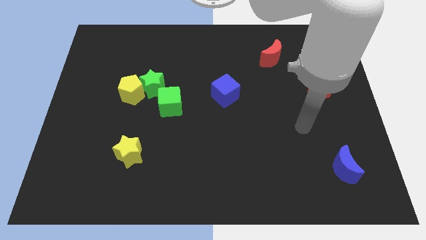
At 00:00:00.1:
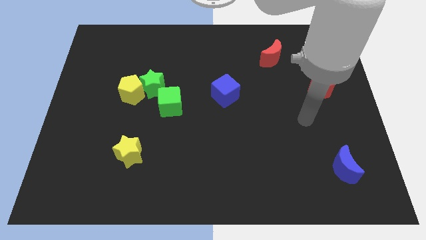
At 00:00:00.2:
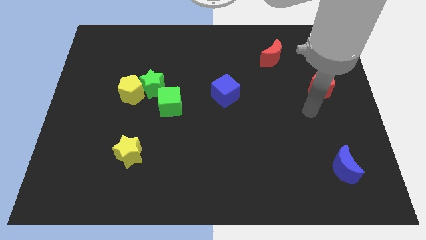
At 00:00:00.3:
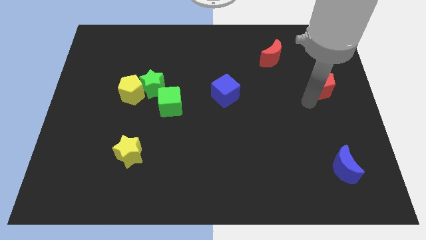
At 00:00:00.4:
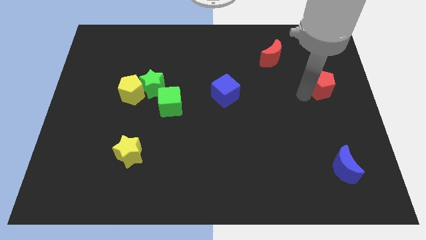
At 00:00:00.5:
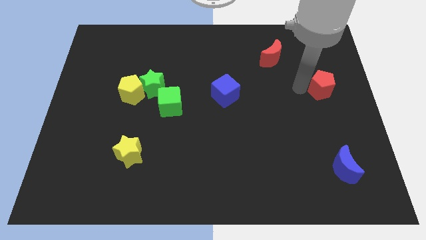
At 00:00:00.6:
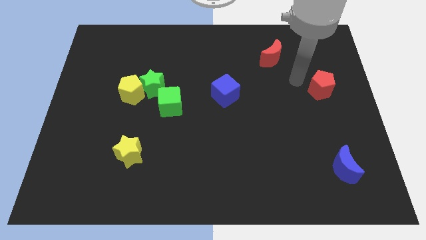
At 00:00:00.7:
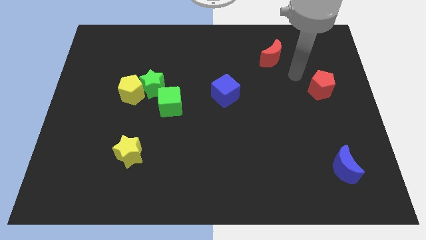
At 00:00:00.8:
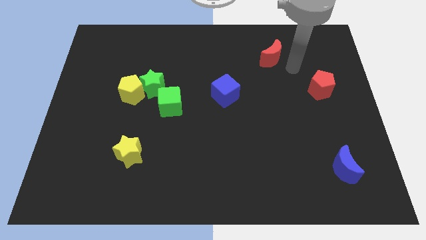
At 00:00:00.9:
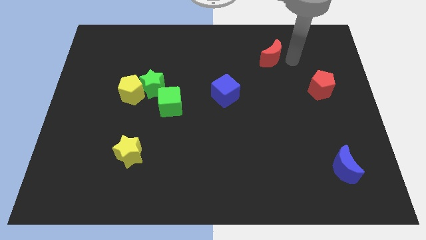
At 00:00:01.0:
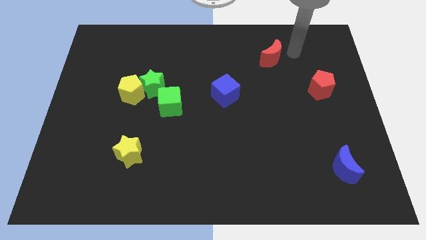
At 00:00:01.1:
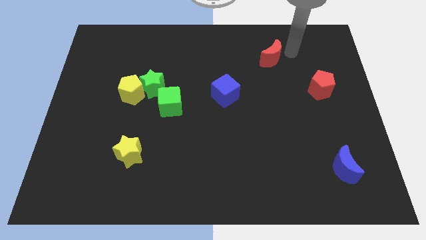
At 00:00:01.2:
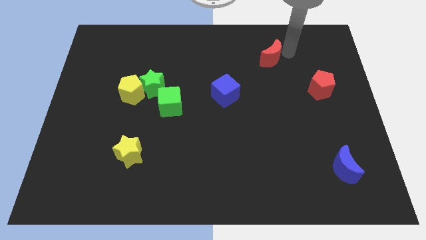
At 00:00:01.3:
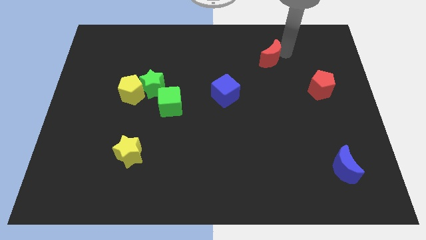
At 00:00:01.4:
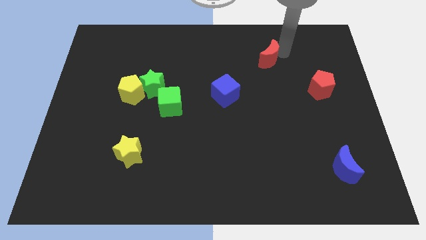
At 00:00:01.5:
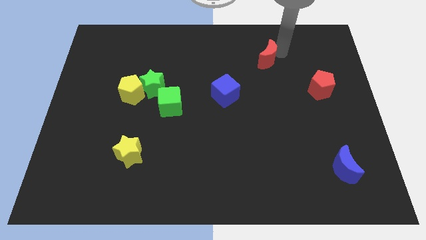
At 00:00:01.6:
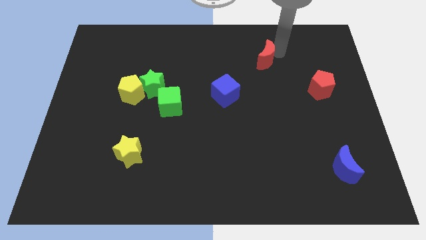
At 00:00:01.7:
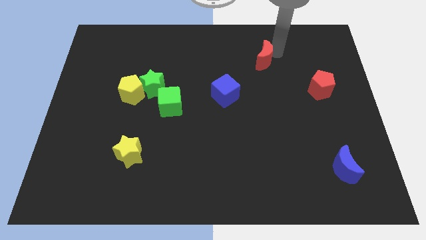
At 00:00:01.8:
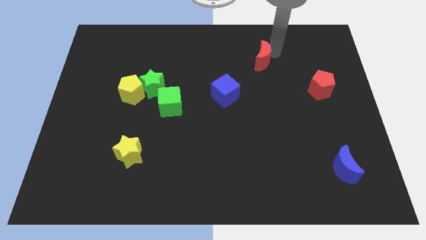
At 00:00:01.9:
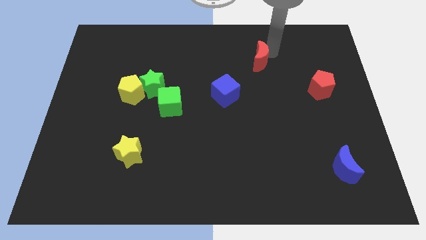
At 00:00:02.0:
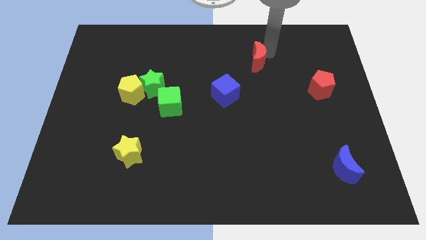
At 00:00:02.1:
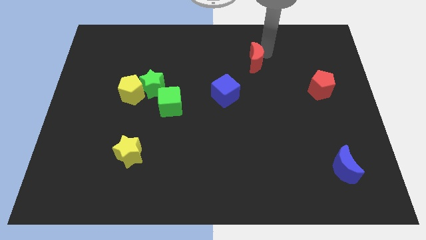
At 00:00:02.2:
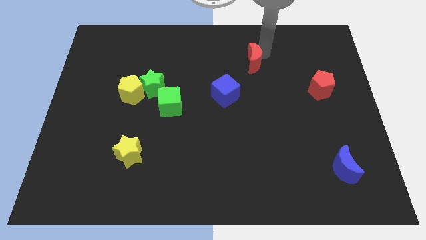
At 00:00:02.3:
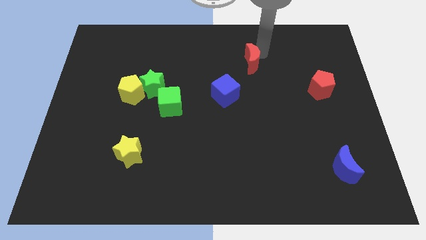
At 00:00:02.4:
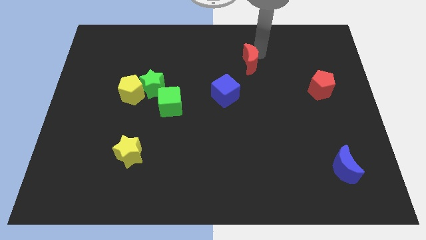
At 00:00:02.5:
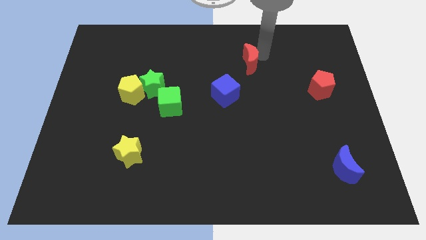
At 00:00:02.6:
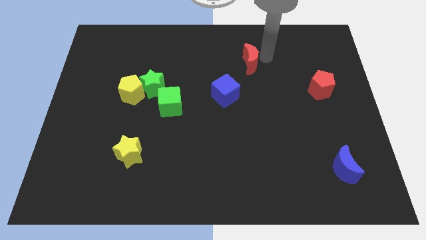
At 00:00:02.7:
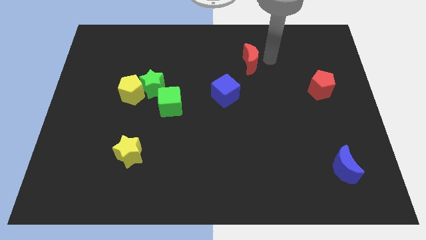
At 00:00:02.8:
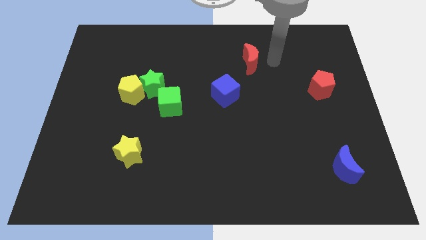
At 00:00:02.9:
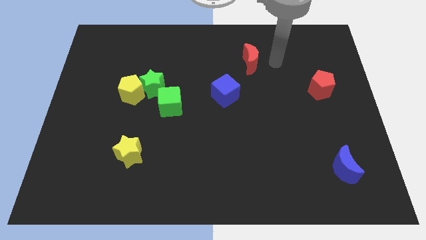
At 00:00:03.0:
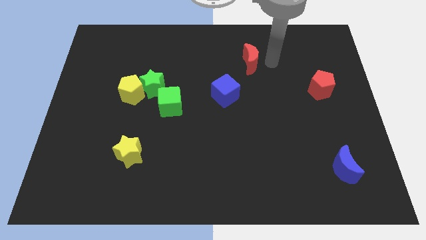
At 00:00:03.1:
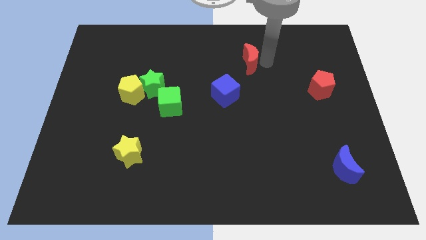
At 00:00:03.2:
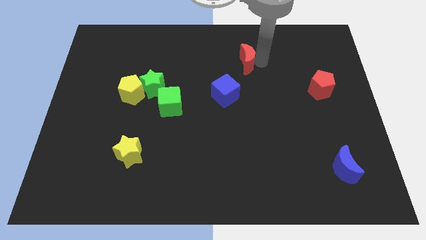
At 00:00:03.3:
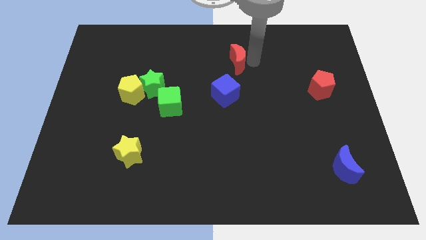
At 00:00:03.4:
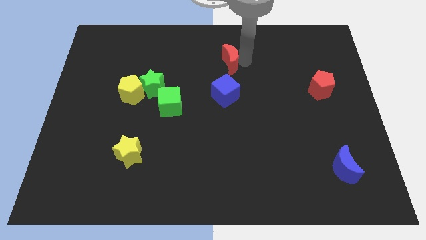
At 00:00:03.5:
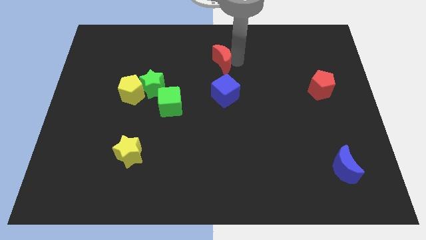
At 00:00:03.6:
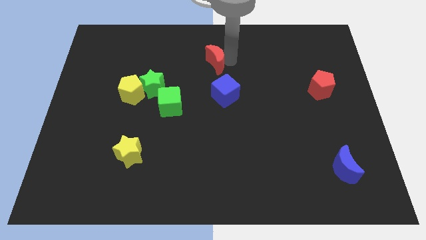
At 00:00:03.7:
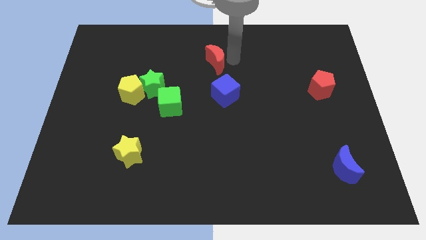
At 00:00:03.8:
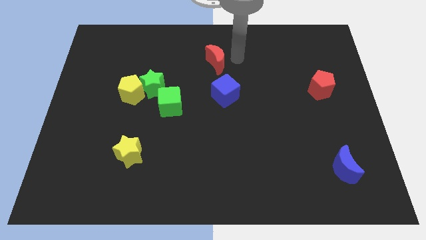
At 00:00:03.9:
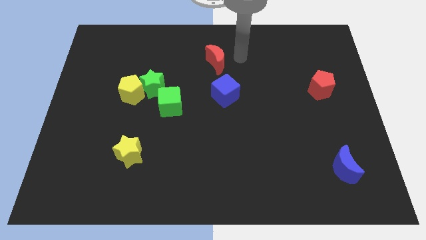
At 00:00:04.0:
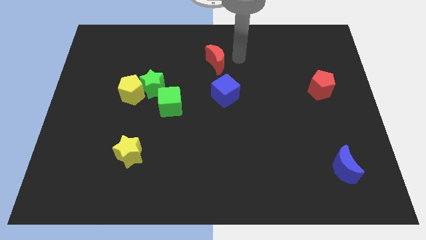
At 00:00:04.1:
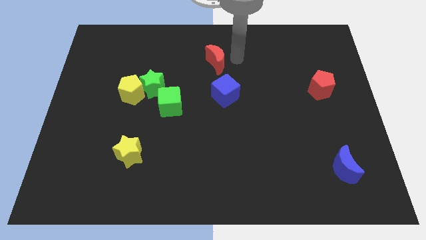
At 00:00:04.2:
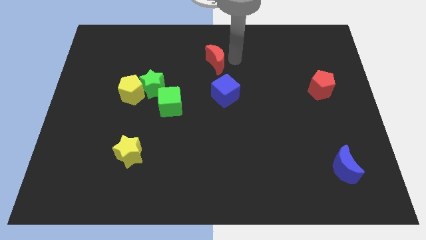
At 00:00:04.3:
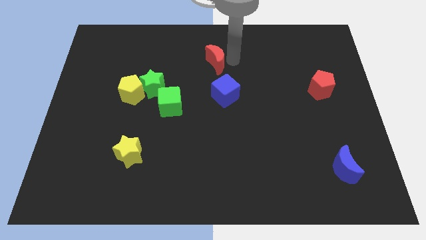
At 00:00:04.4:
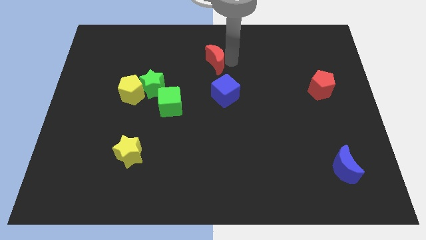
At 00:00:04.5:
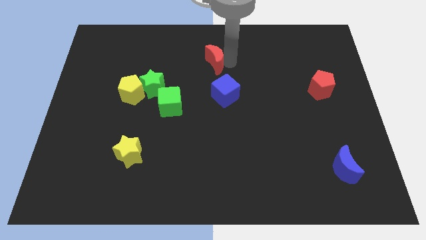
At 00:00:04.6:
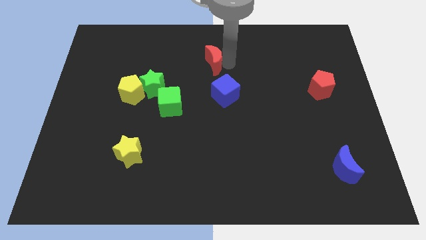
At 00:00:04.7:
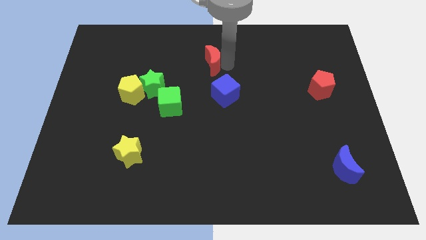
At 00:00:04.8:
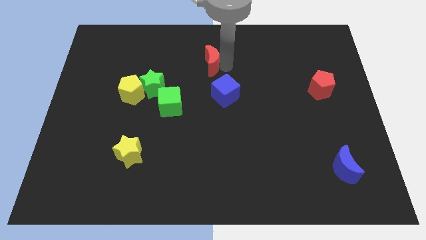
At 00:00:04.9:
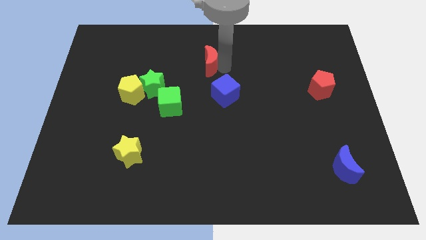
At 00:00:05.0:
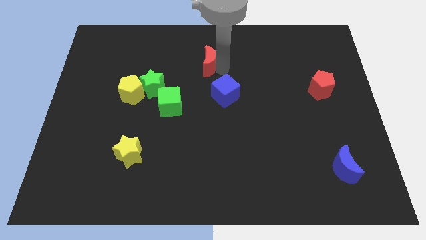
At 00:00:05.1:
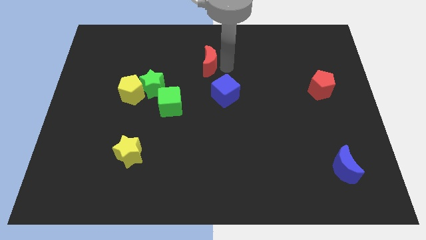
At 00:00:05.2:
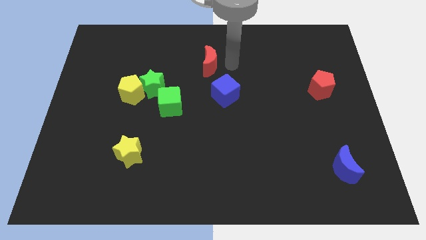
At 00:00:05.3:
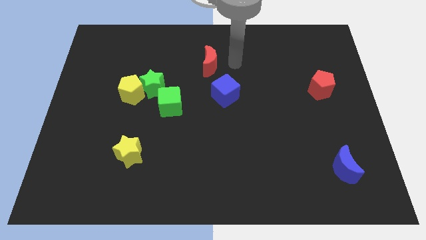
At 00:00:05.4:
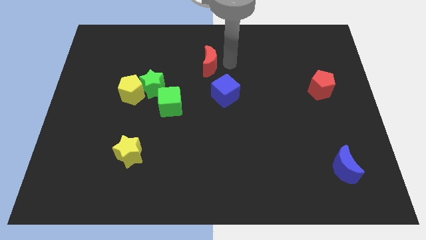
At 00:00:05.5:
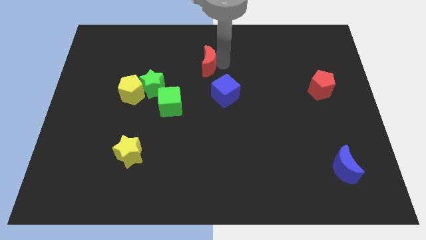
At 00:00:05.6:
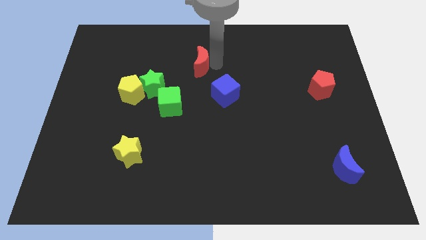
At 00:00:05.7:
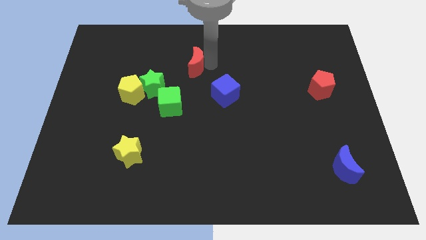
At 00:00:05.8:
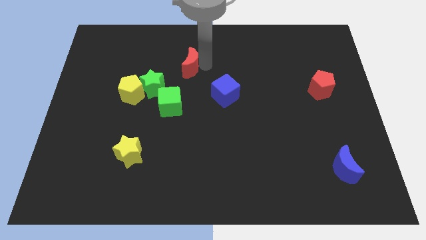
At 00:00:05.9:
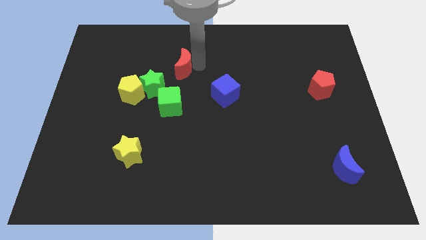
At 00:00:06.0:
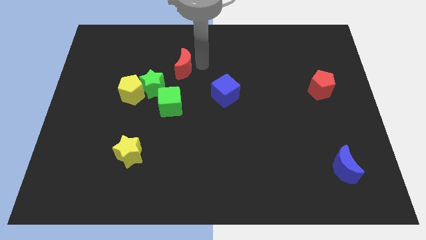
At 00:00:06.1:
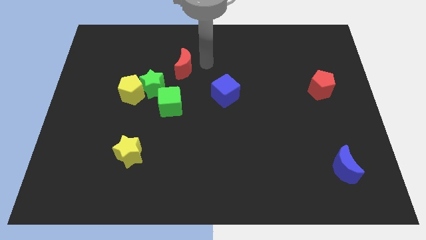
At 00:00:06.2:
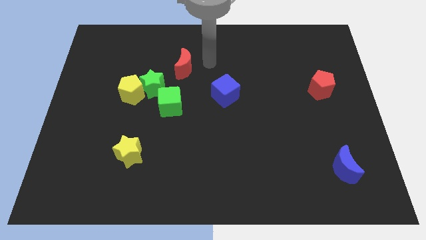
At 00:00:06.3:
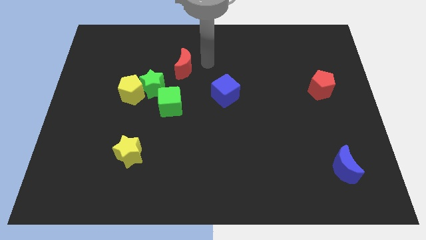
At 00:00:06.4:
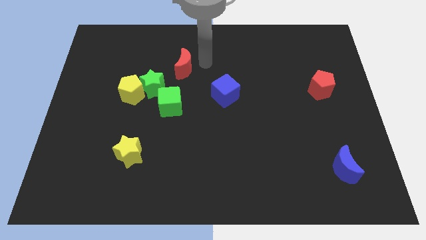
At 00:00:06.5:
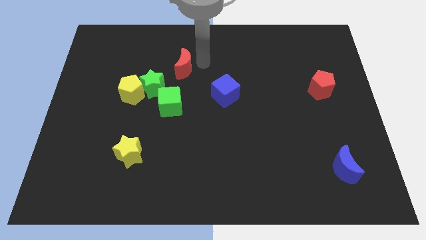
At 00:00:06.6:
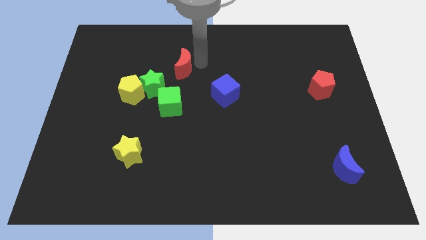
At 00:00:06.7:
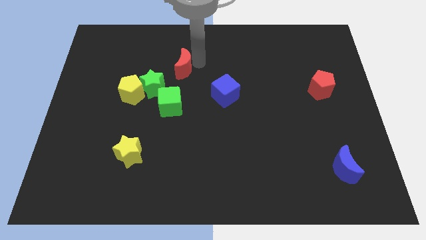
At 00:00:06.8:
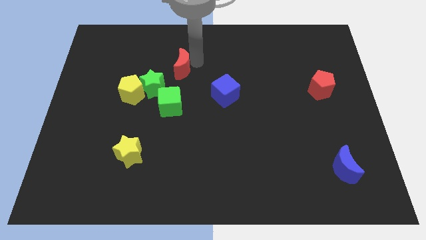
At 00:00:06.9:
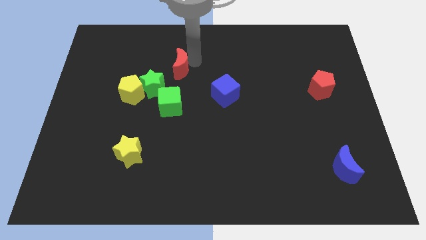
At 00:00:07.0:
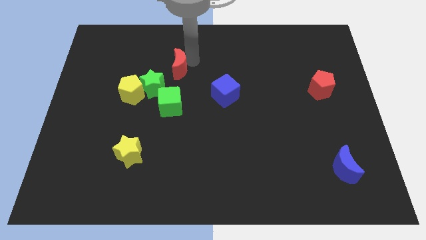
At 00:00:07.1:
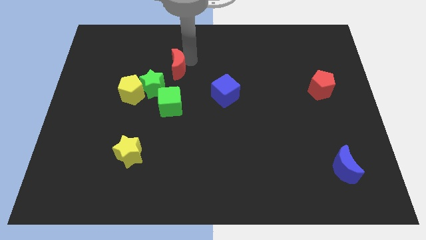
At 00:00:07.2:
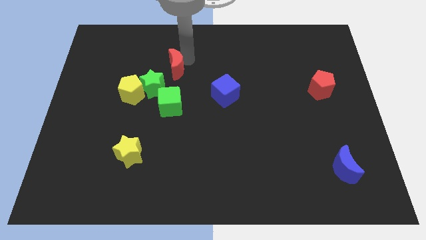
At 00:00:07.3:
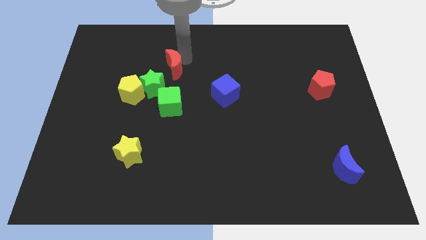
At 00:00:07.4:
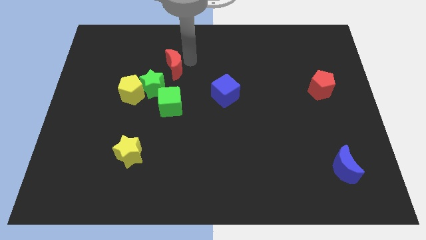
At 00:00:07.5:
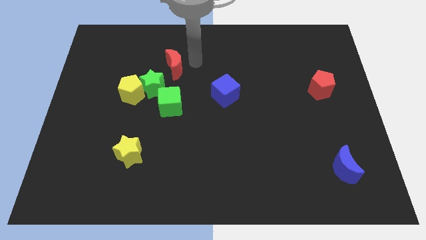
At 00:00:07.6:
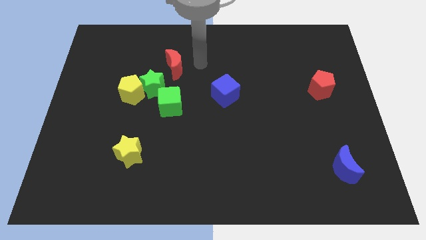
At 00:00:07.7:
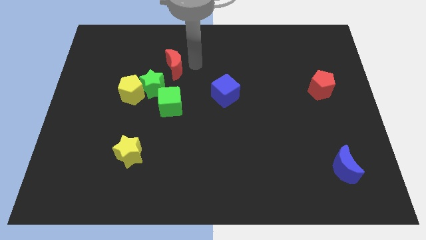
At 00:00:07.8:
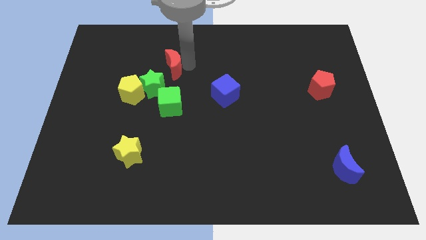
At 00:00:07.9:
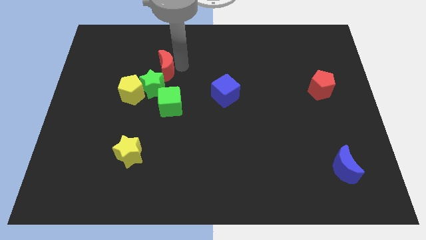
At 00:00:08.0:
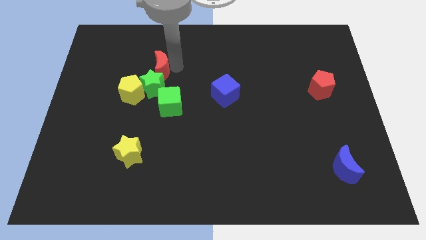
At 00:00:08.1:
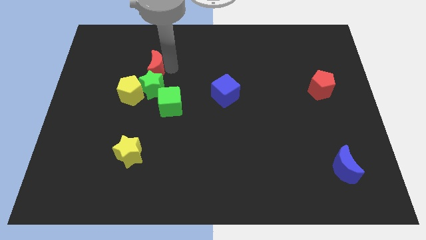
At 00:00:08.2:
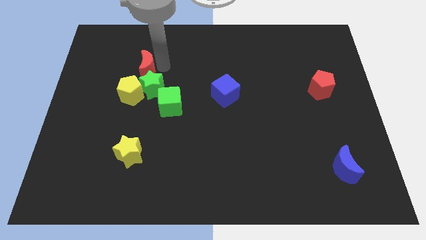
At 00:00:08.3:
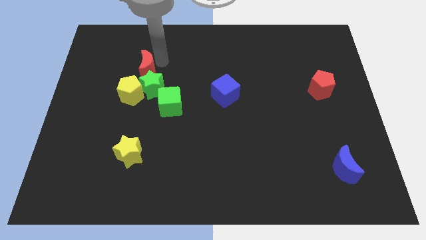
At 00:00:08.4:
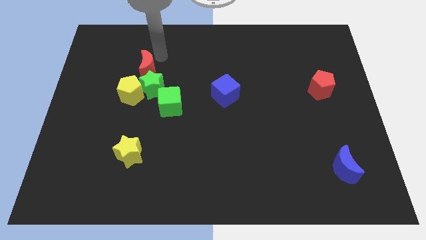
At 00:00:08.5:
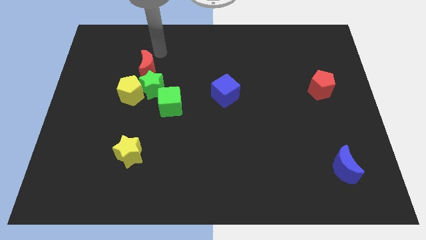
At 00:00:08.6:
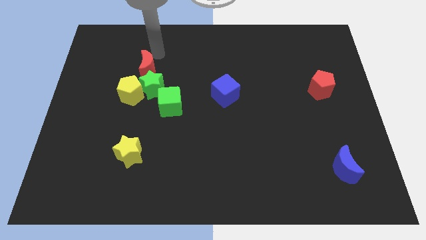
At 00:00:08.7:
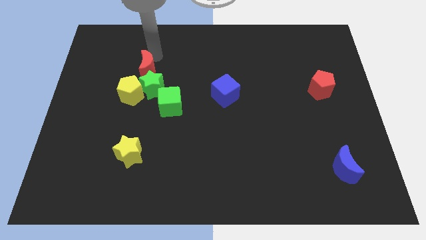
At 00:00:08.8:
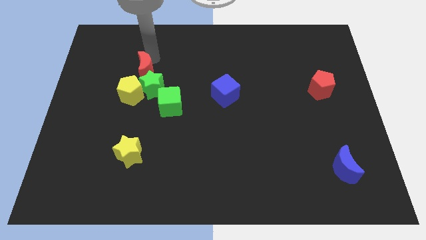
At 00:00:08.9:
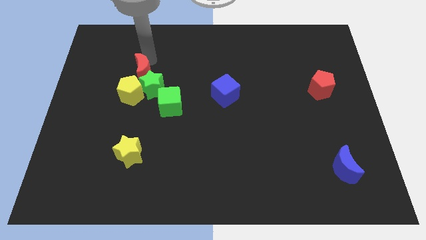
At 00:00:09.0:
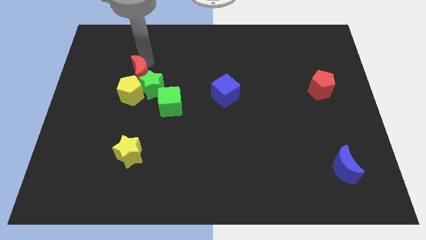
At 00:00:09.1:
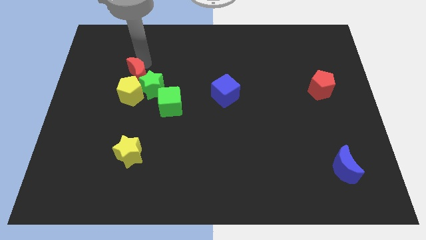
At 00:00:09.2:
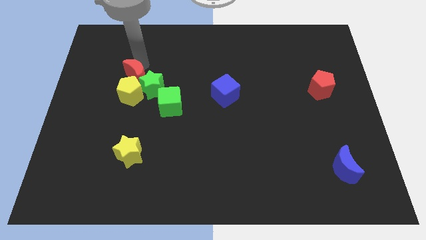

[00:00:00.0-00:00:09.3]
push the red moon towards the yellow pentagon
